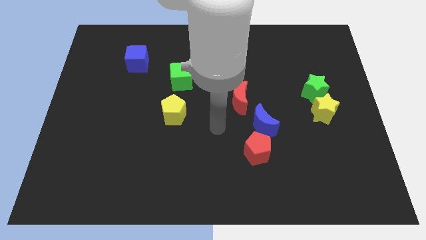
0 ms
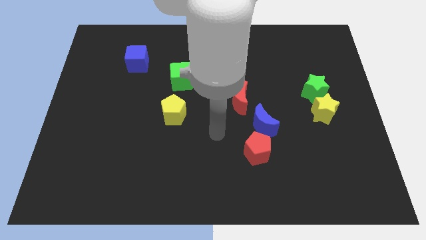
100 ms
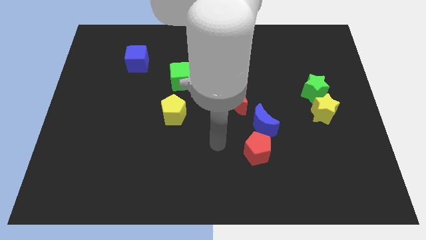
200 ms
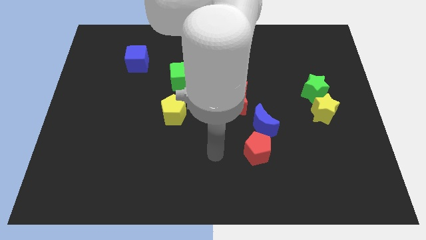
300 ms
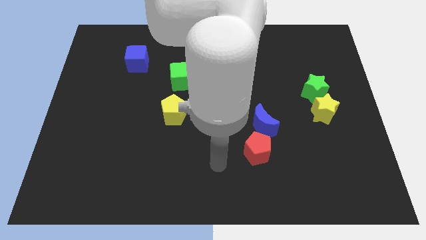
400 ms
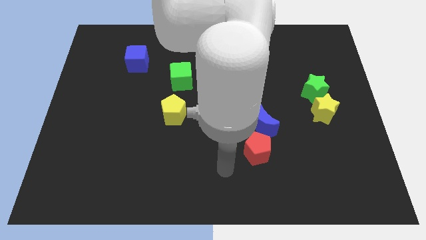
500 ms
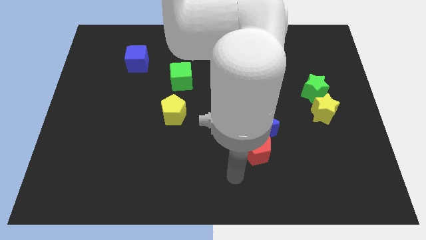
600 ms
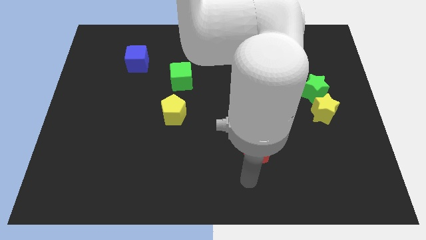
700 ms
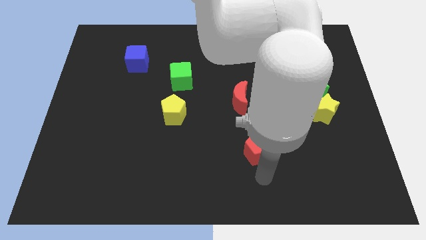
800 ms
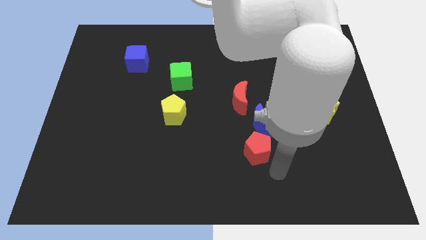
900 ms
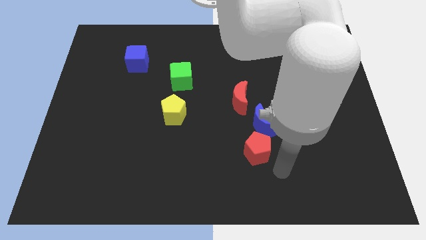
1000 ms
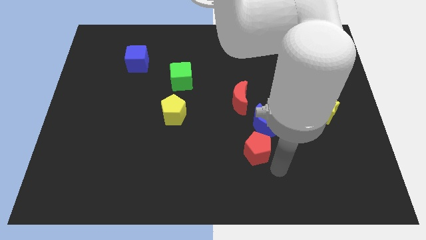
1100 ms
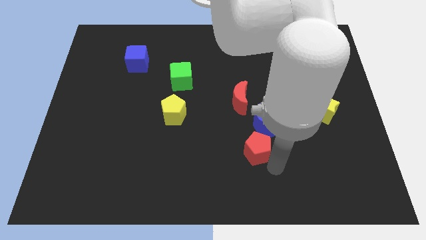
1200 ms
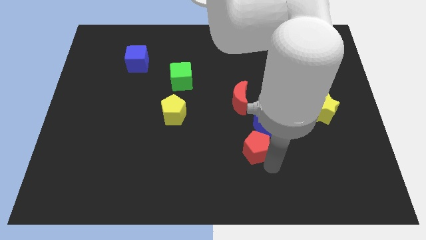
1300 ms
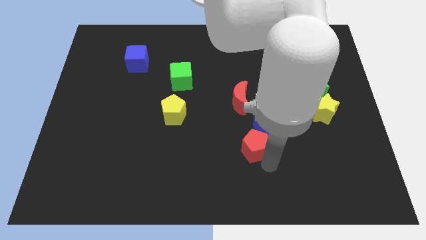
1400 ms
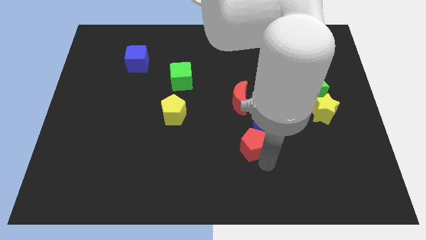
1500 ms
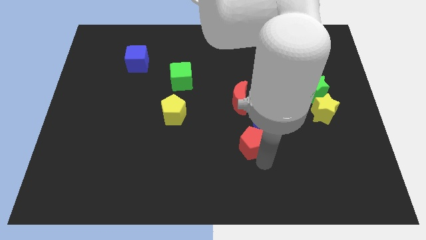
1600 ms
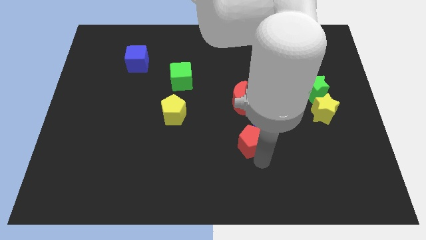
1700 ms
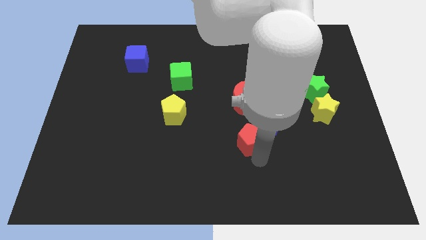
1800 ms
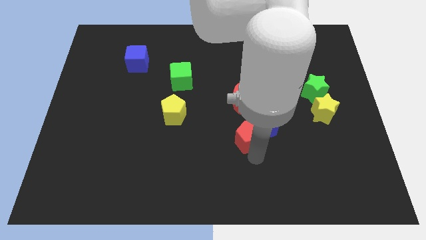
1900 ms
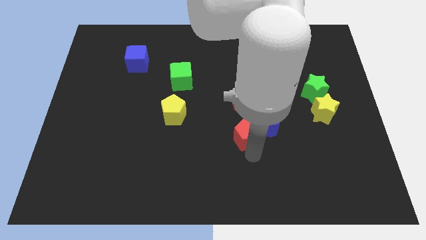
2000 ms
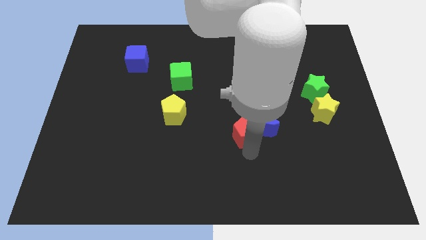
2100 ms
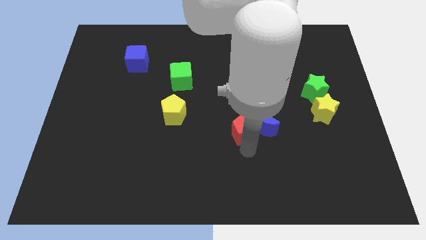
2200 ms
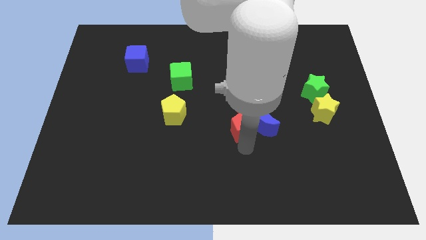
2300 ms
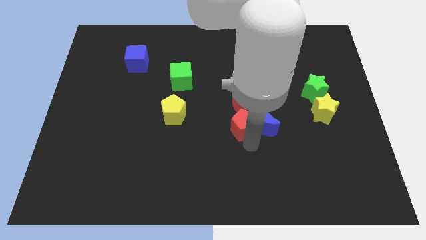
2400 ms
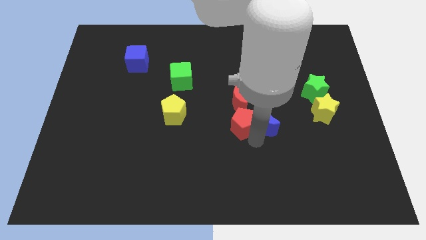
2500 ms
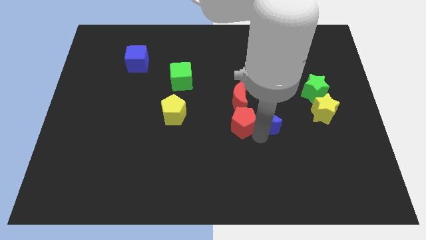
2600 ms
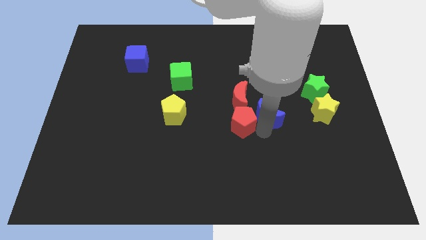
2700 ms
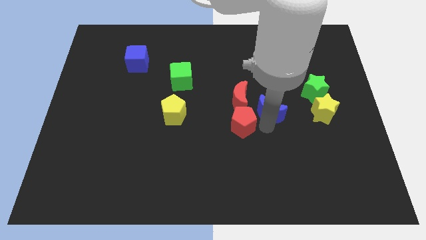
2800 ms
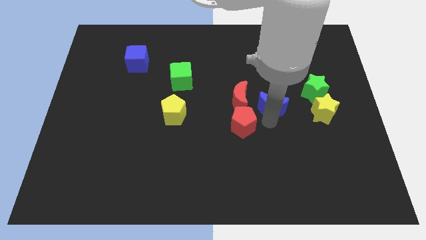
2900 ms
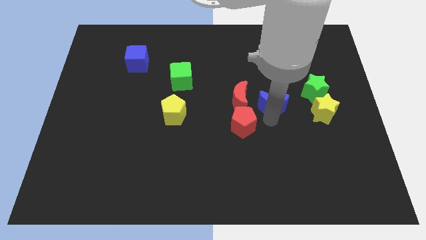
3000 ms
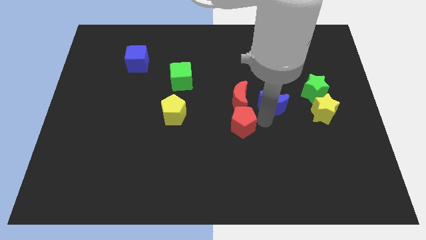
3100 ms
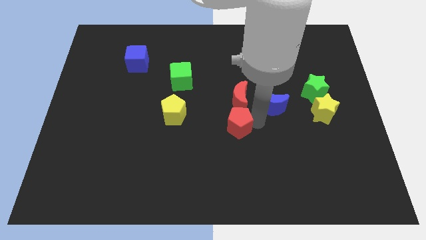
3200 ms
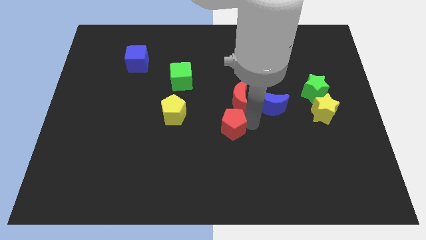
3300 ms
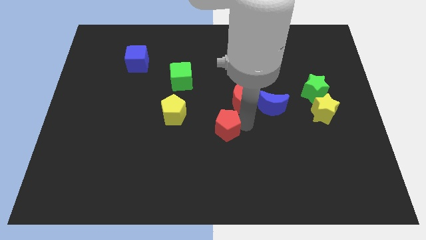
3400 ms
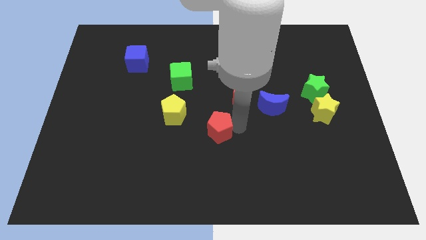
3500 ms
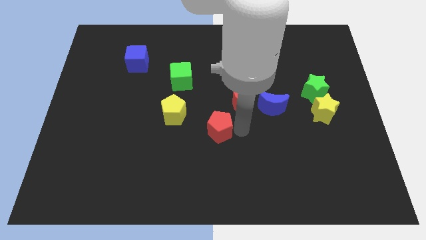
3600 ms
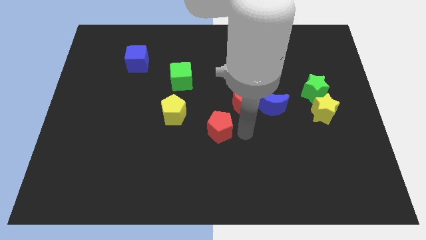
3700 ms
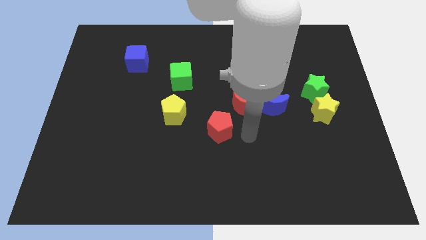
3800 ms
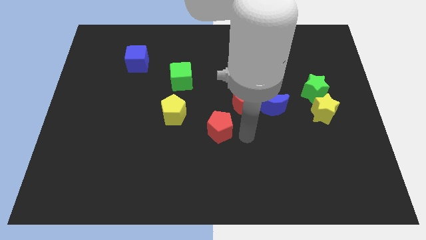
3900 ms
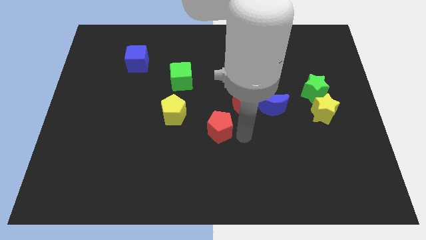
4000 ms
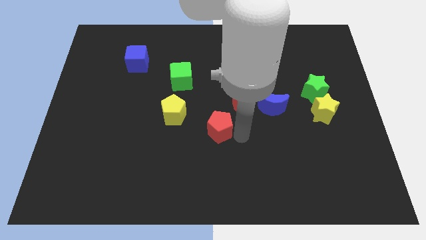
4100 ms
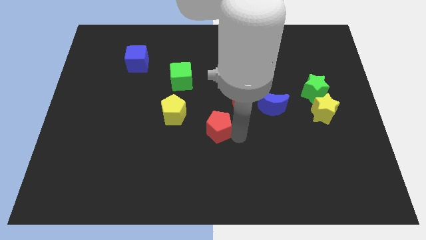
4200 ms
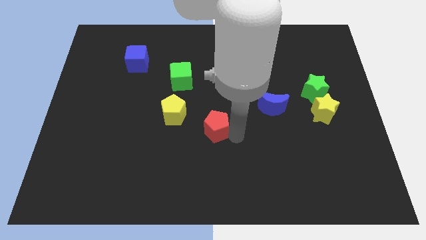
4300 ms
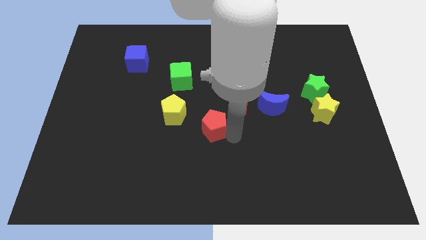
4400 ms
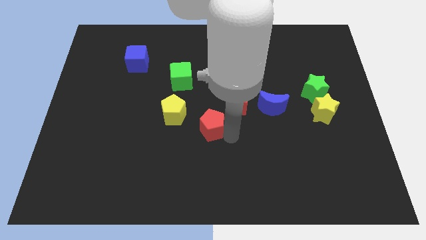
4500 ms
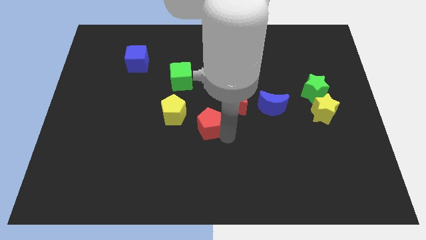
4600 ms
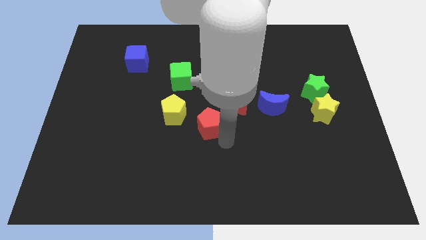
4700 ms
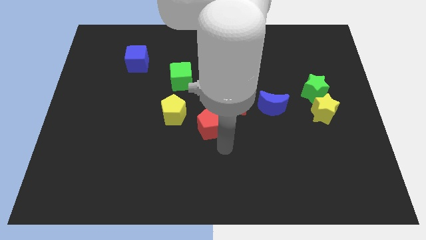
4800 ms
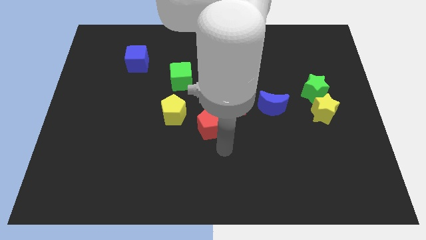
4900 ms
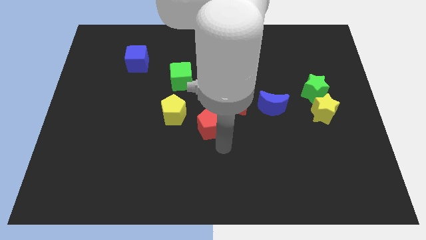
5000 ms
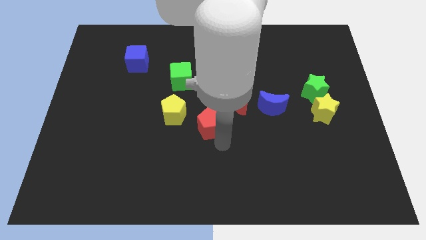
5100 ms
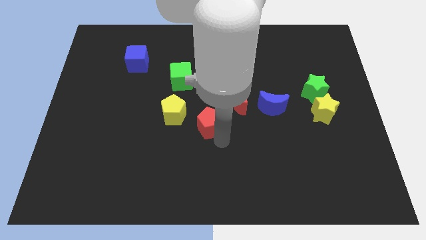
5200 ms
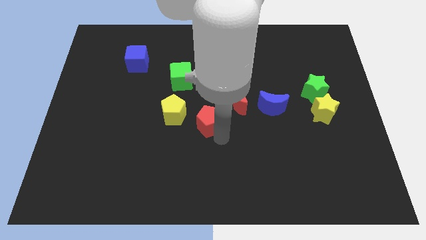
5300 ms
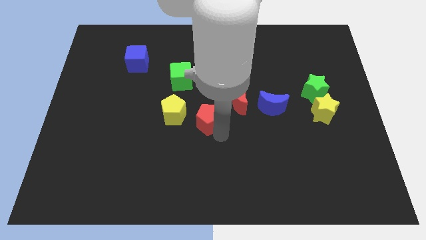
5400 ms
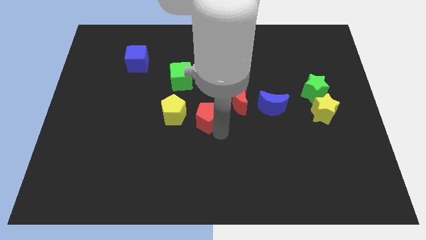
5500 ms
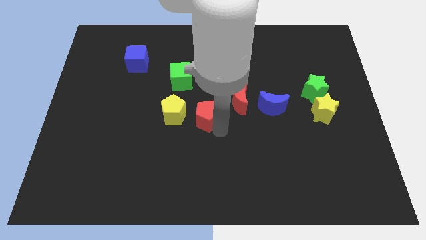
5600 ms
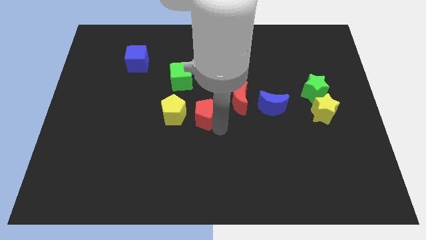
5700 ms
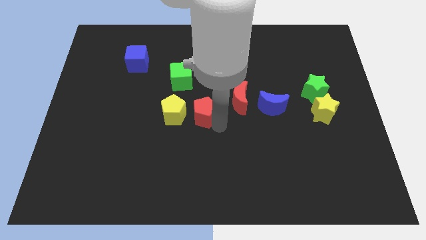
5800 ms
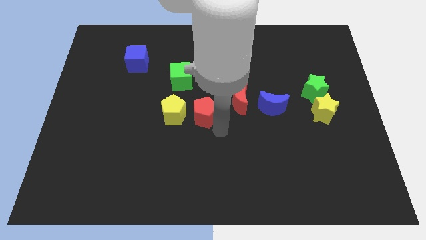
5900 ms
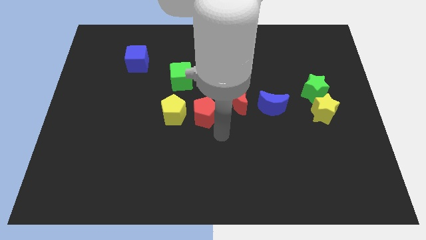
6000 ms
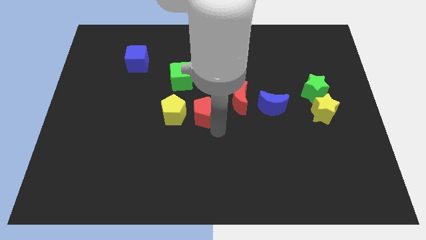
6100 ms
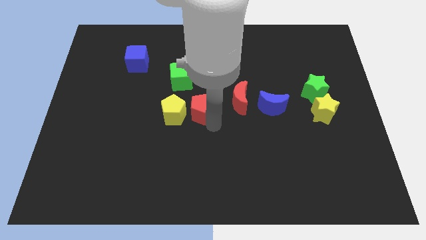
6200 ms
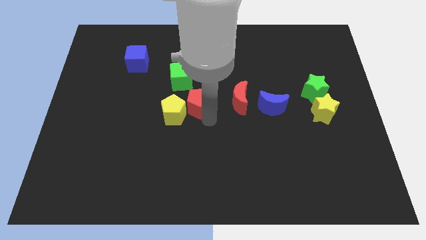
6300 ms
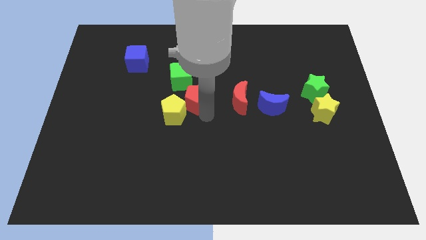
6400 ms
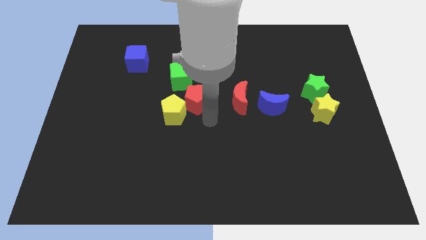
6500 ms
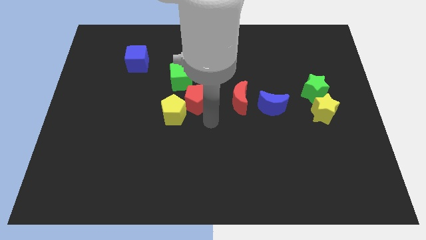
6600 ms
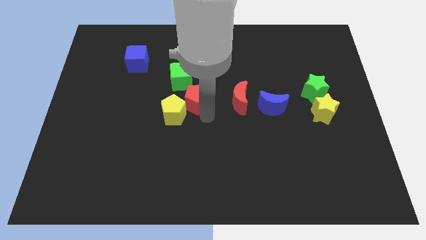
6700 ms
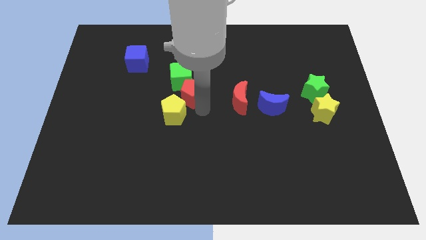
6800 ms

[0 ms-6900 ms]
move the red pentagon to the green cube

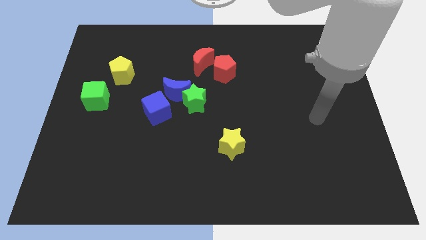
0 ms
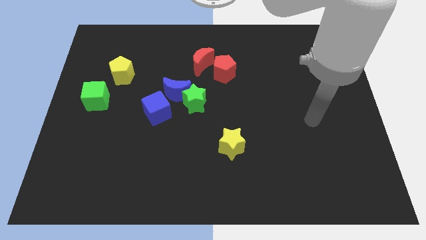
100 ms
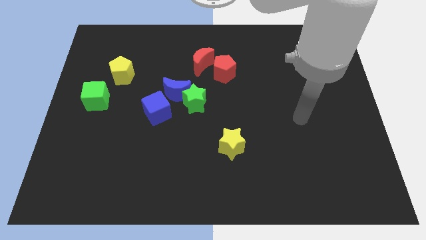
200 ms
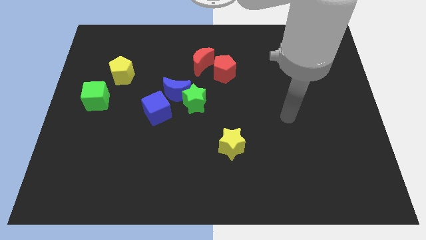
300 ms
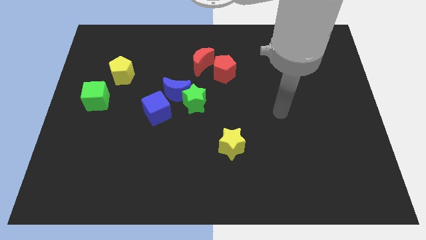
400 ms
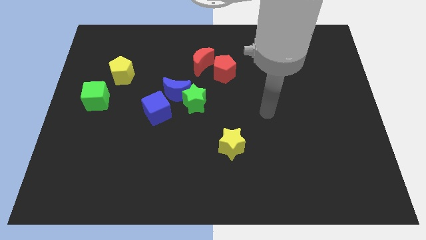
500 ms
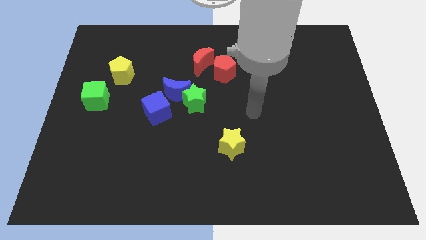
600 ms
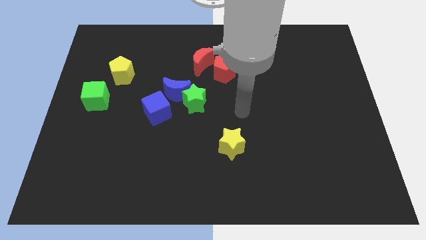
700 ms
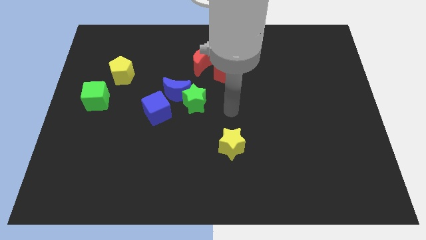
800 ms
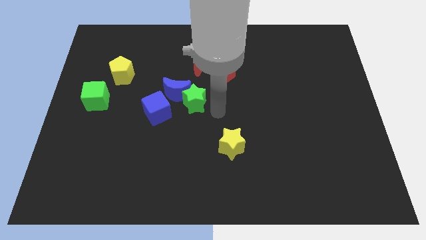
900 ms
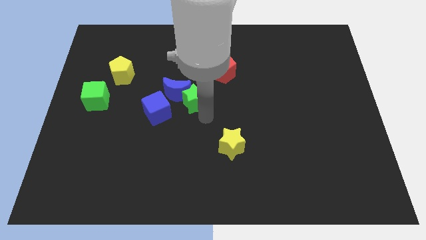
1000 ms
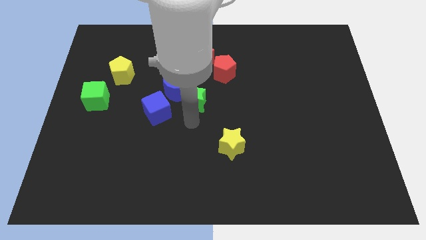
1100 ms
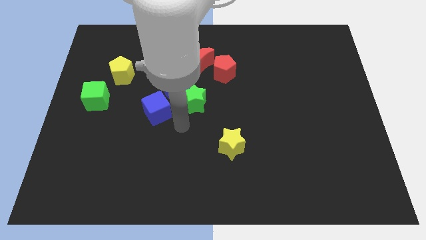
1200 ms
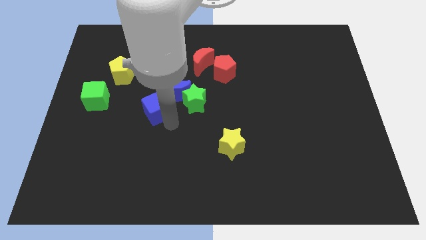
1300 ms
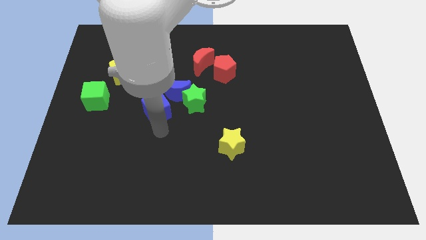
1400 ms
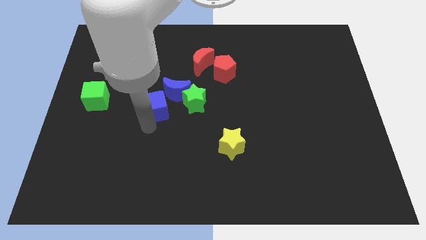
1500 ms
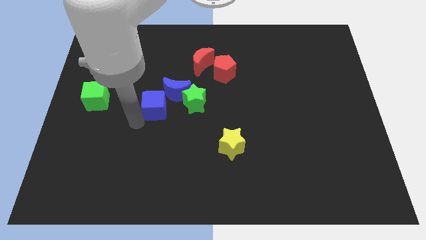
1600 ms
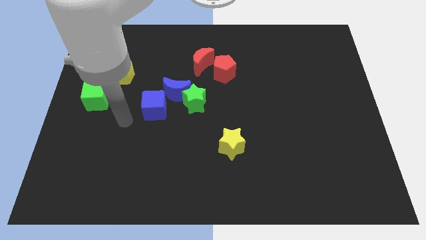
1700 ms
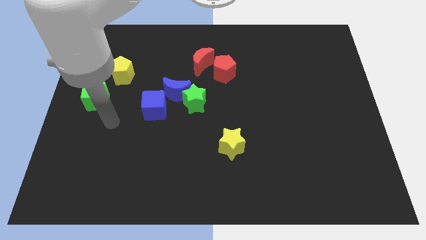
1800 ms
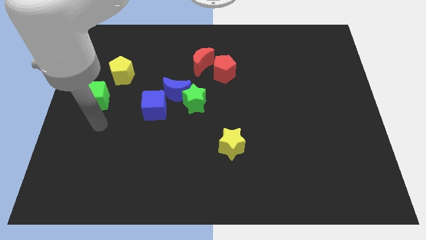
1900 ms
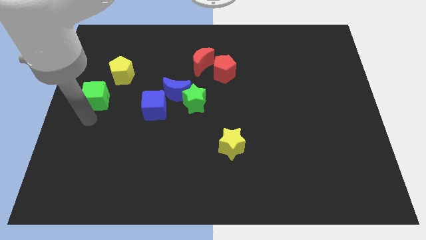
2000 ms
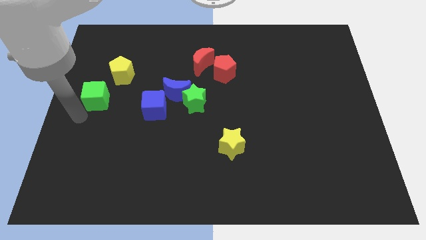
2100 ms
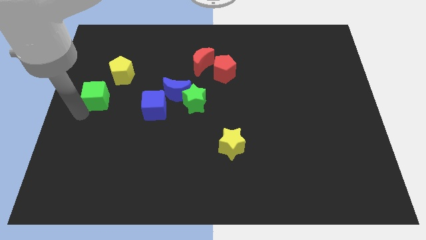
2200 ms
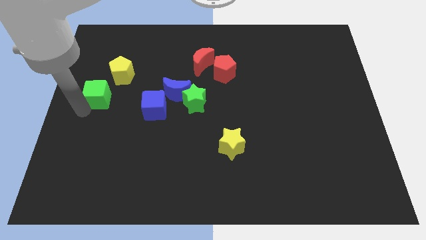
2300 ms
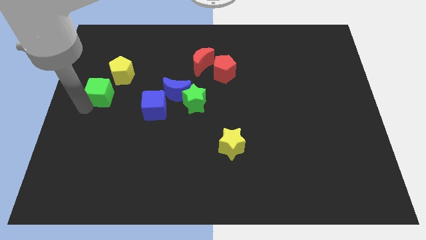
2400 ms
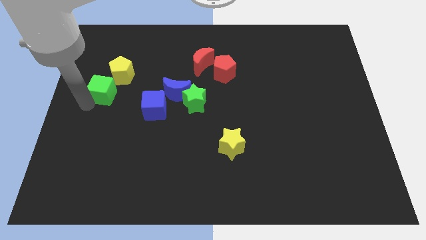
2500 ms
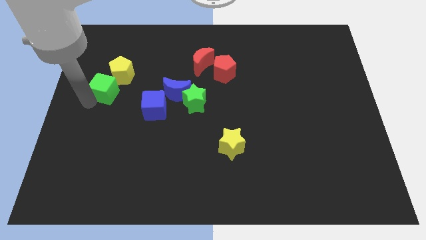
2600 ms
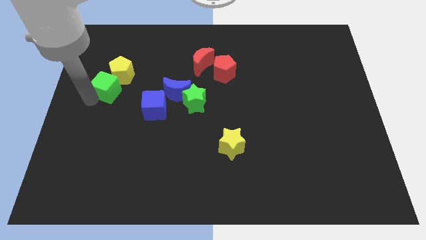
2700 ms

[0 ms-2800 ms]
put the green cube next to the yellow pentagon
